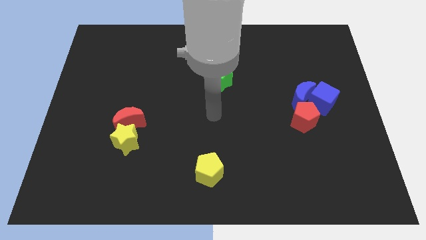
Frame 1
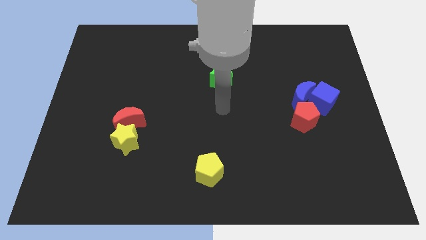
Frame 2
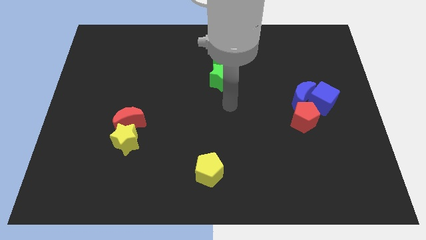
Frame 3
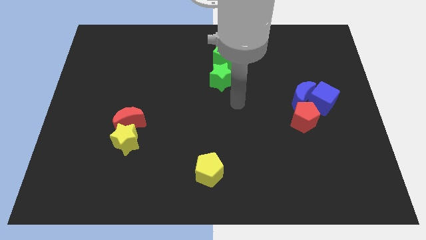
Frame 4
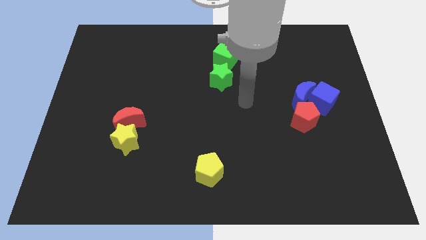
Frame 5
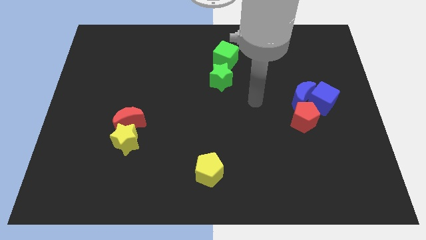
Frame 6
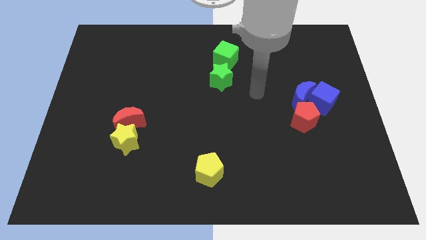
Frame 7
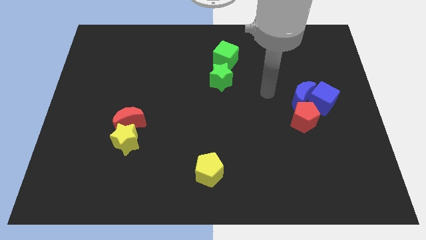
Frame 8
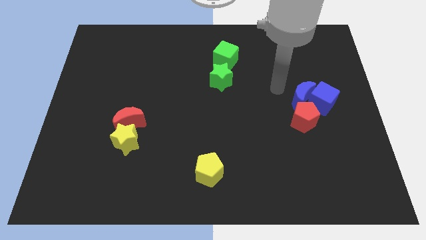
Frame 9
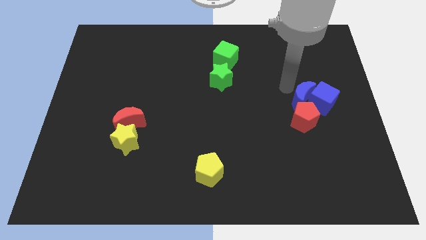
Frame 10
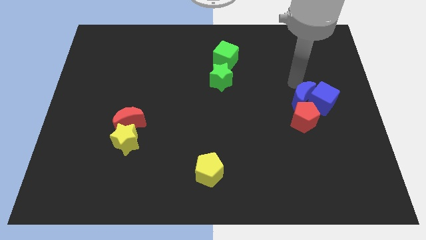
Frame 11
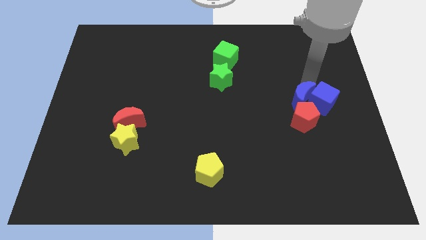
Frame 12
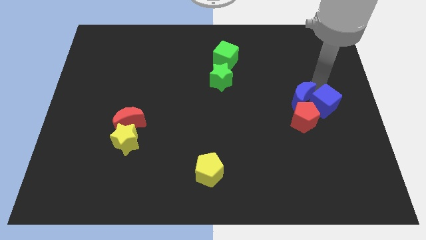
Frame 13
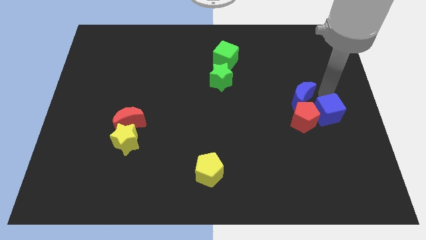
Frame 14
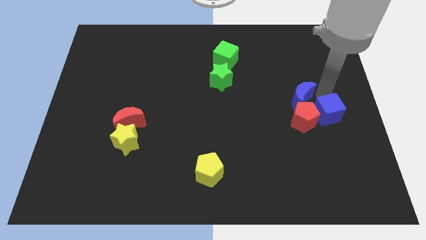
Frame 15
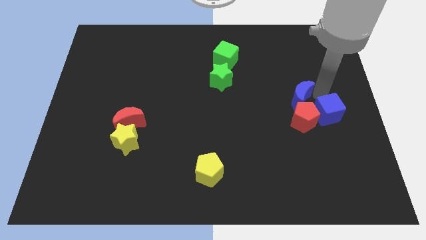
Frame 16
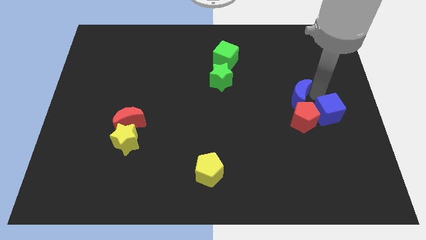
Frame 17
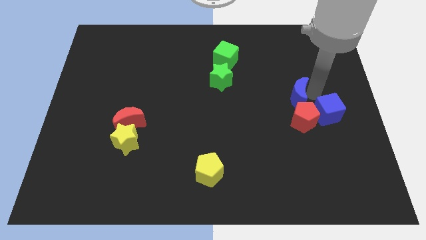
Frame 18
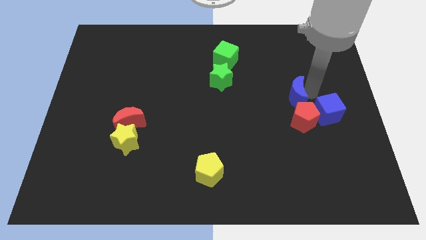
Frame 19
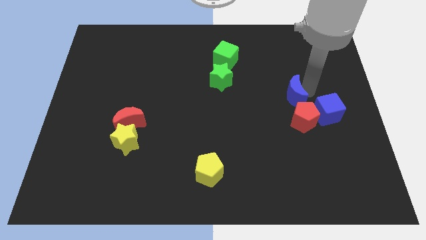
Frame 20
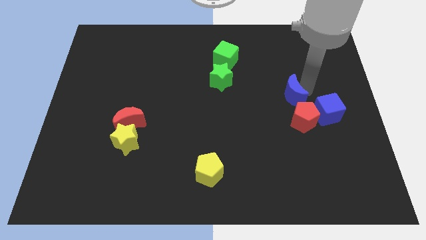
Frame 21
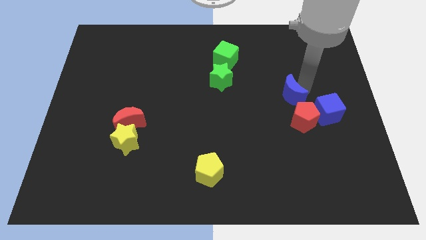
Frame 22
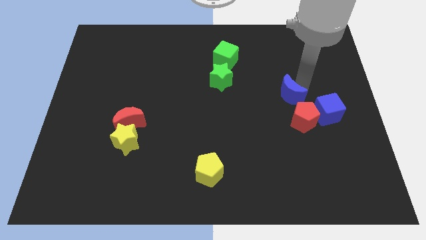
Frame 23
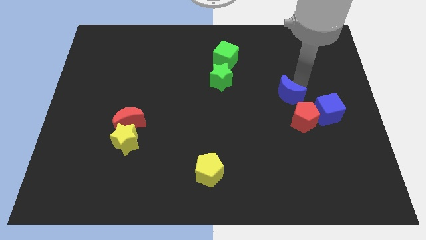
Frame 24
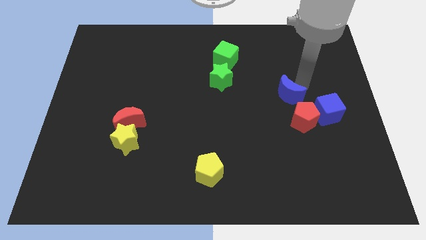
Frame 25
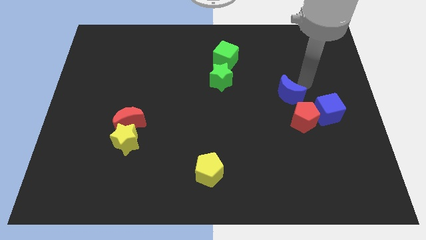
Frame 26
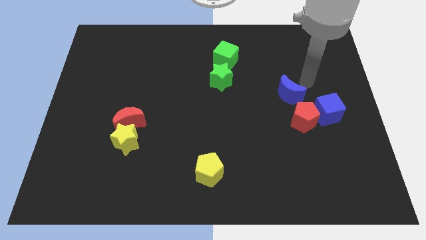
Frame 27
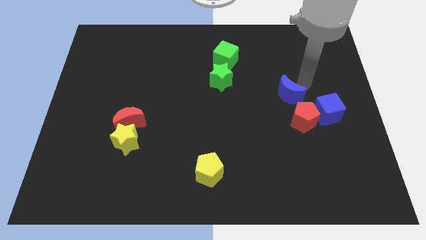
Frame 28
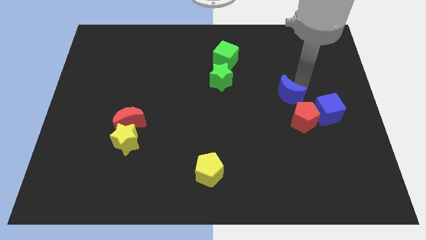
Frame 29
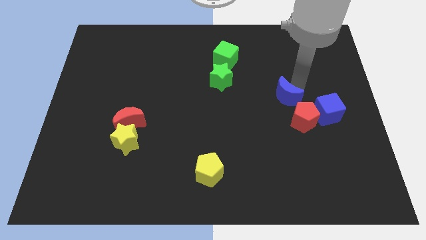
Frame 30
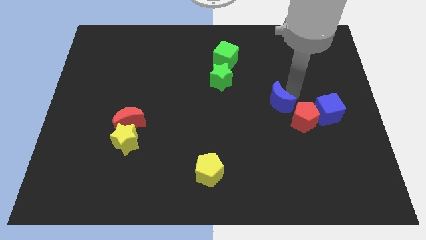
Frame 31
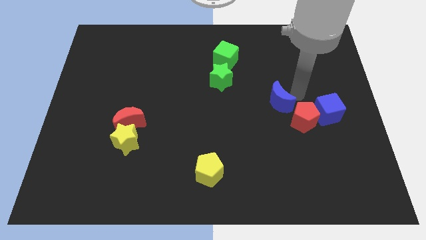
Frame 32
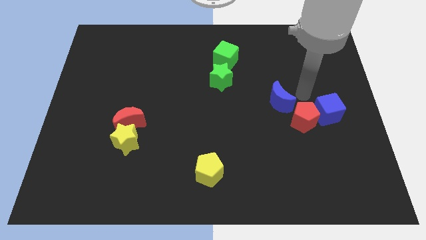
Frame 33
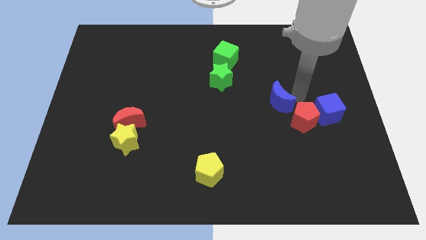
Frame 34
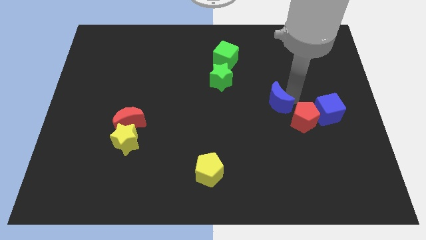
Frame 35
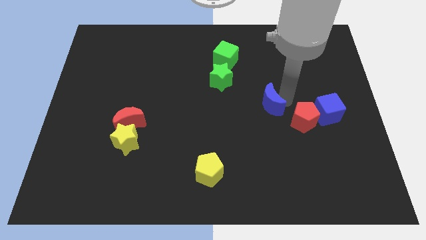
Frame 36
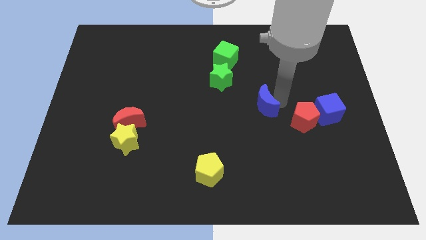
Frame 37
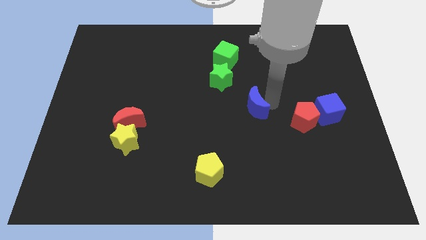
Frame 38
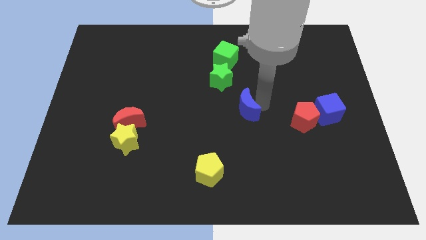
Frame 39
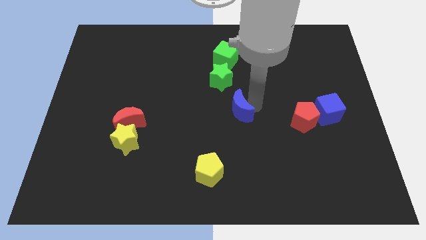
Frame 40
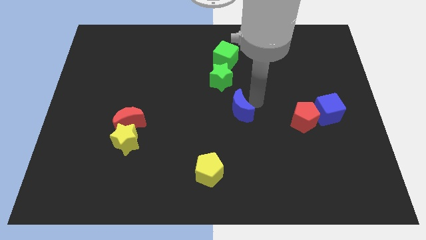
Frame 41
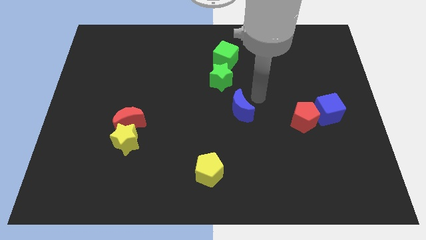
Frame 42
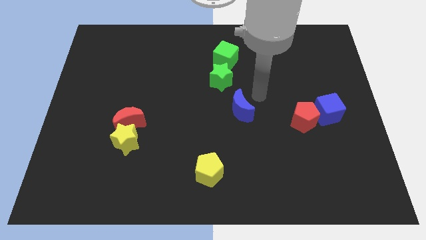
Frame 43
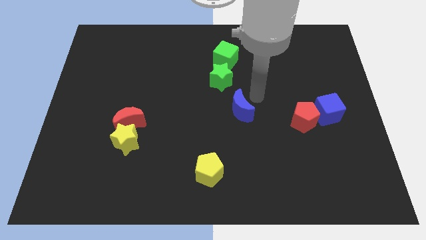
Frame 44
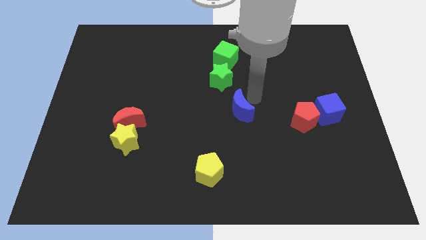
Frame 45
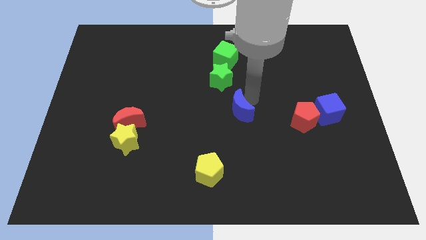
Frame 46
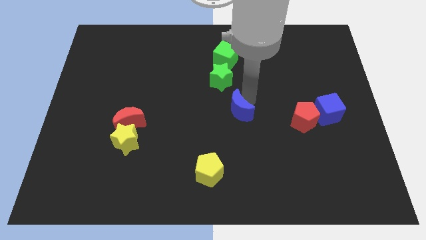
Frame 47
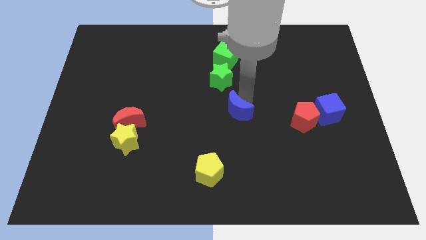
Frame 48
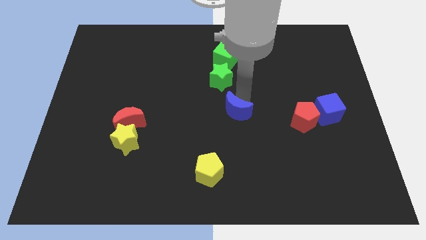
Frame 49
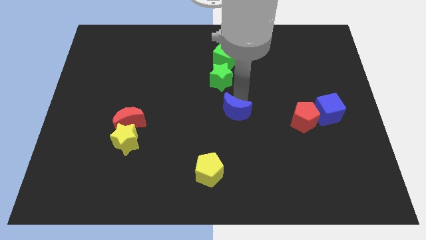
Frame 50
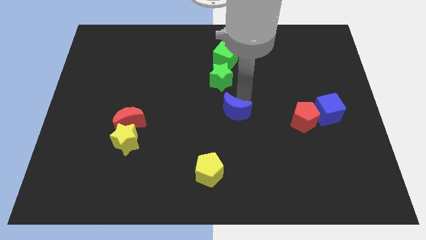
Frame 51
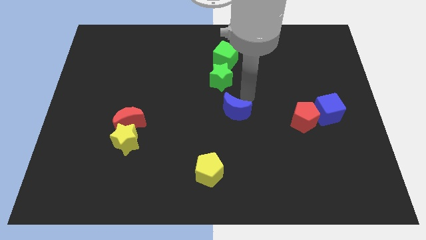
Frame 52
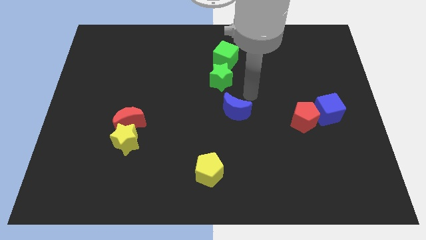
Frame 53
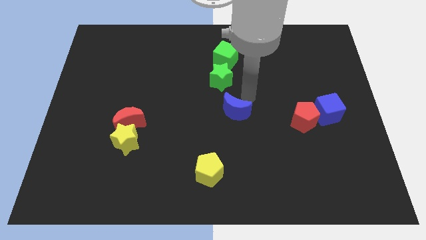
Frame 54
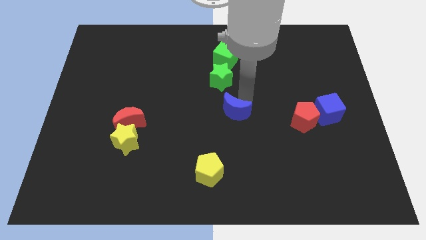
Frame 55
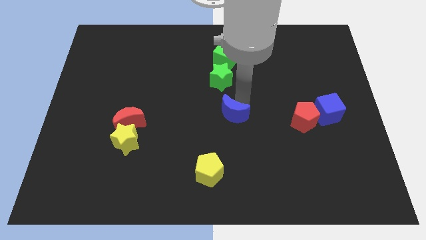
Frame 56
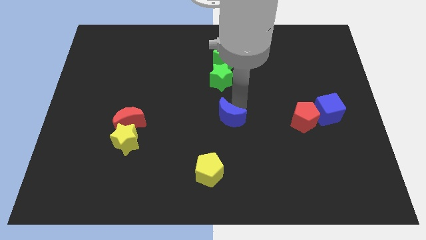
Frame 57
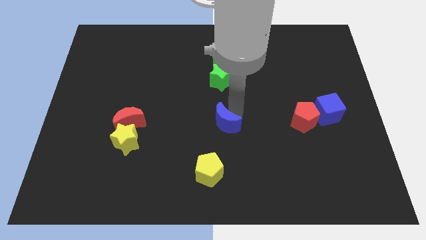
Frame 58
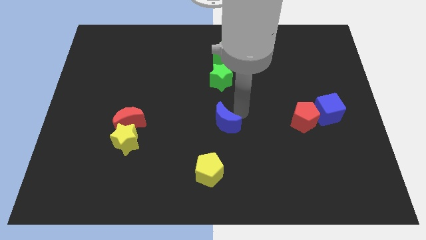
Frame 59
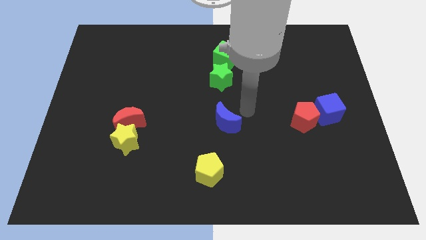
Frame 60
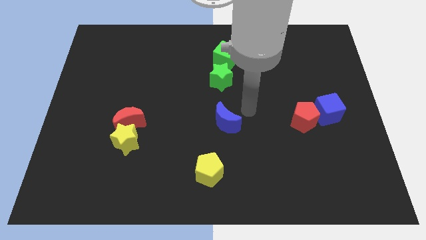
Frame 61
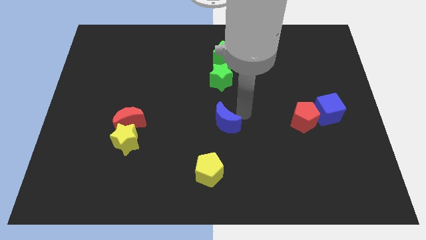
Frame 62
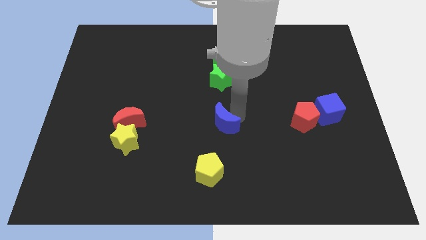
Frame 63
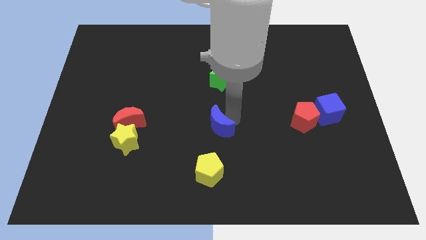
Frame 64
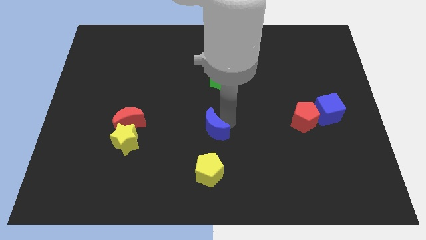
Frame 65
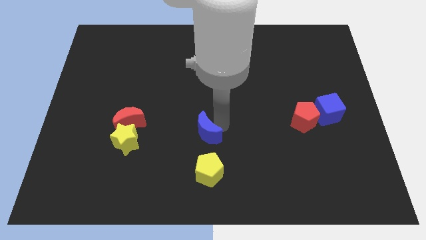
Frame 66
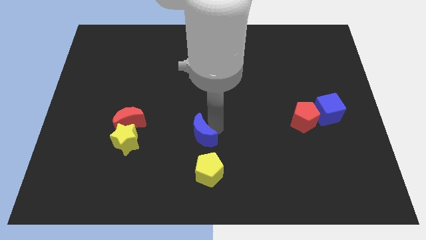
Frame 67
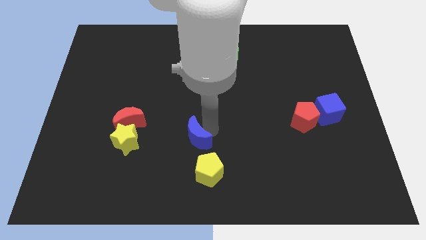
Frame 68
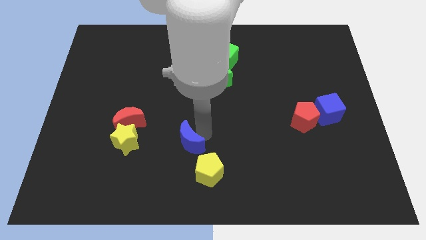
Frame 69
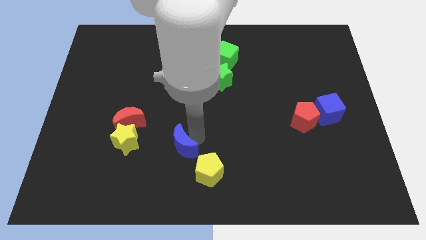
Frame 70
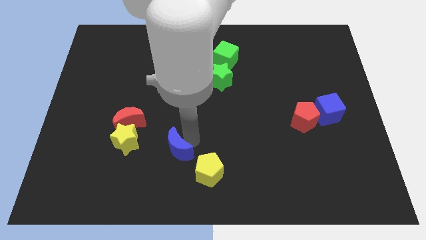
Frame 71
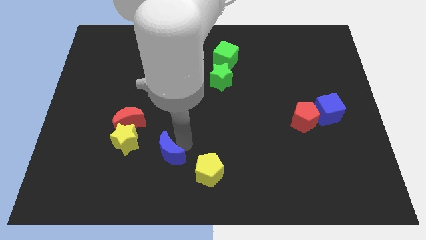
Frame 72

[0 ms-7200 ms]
put the blue moon to the left side of the yellow pentagon
